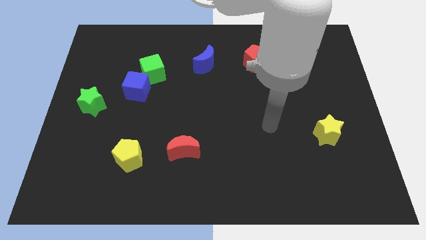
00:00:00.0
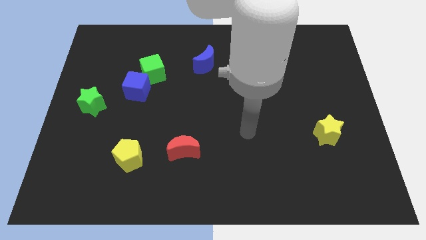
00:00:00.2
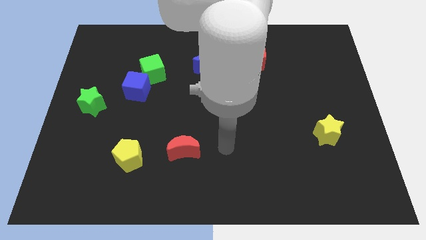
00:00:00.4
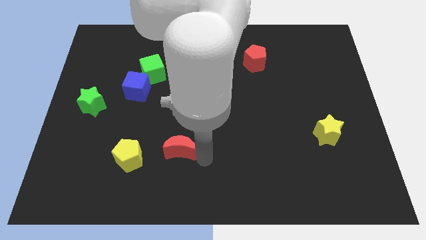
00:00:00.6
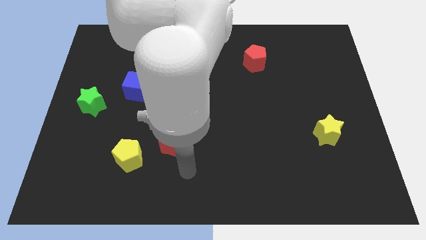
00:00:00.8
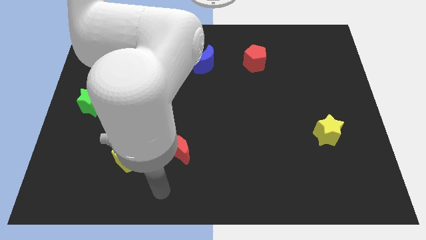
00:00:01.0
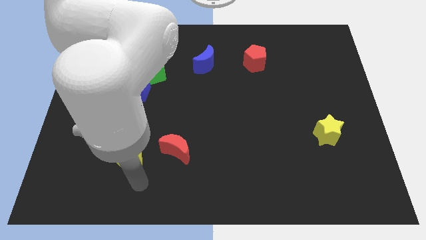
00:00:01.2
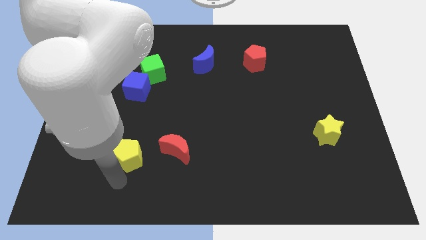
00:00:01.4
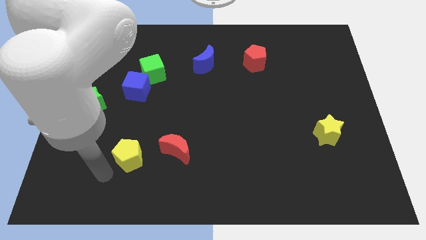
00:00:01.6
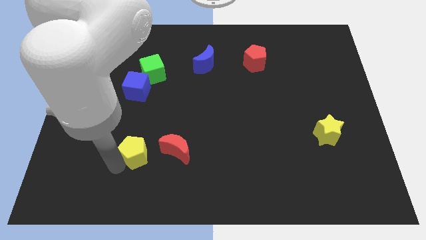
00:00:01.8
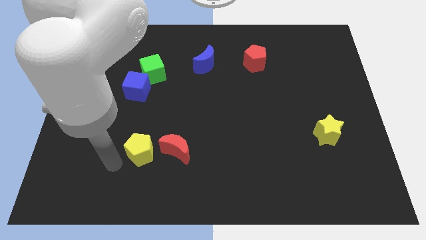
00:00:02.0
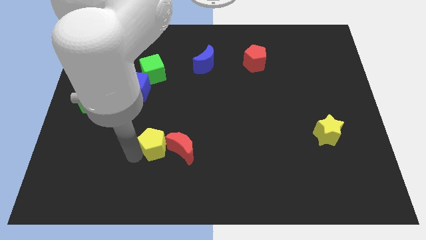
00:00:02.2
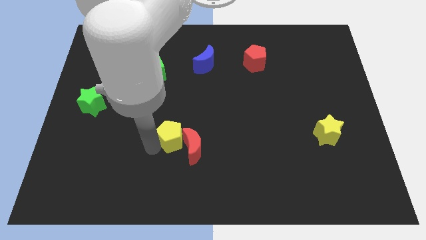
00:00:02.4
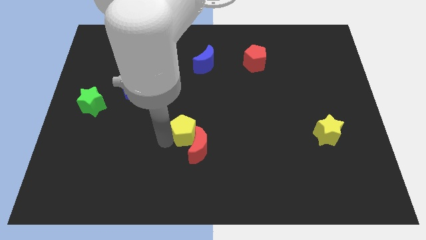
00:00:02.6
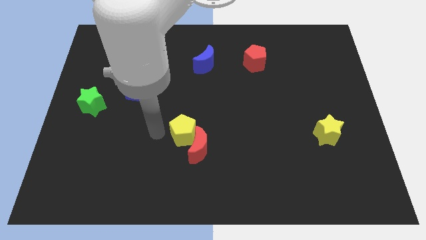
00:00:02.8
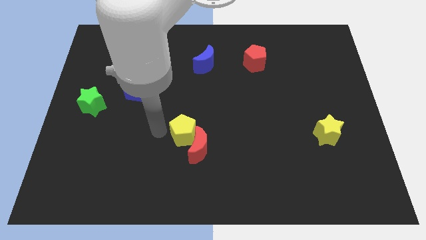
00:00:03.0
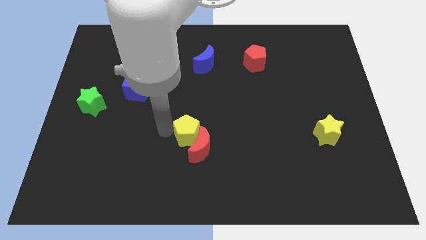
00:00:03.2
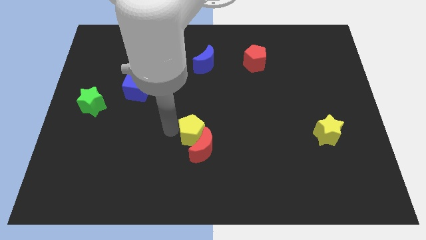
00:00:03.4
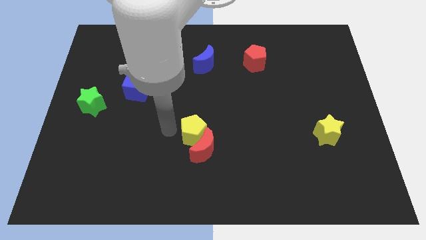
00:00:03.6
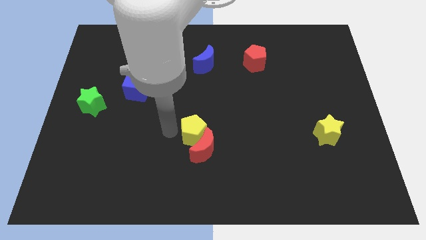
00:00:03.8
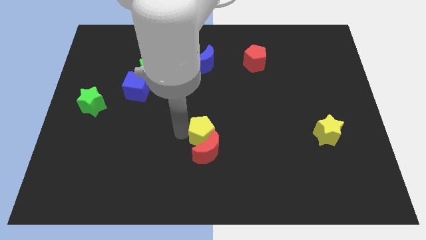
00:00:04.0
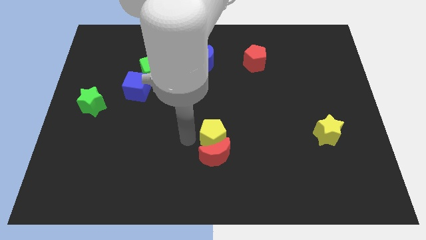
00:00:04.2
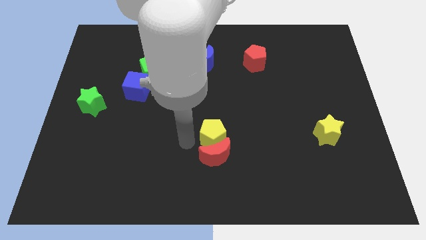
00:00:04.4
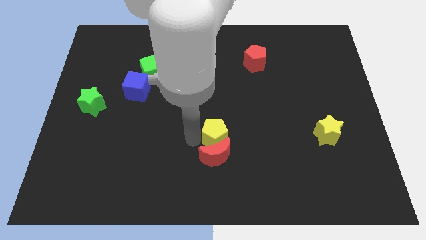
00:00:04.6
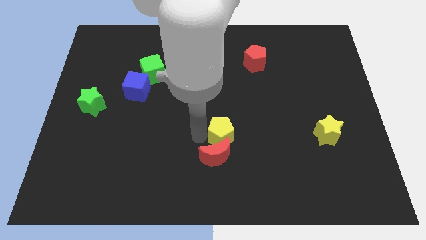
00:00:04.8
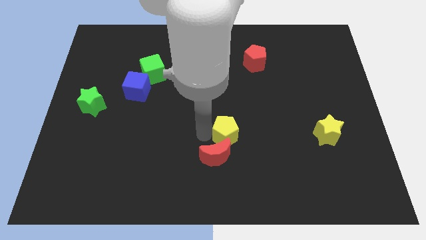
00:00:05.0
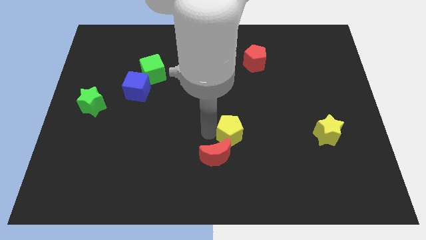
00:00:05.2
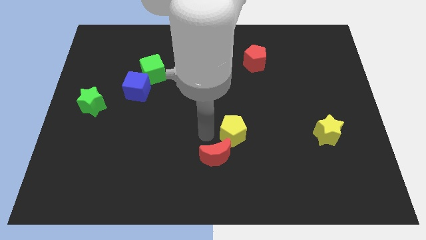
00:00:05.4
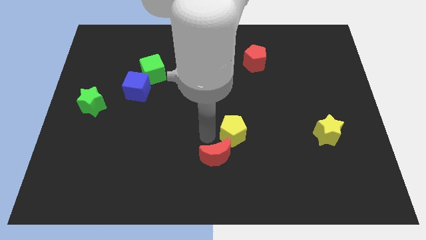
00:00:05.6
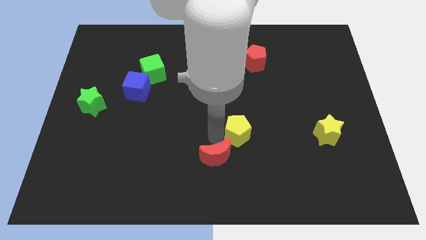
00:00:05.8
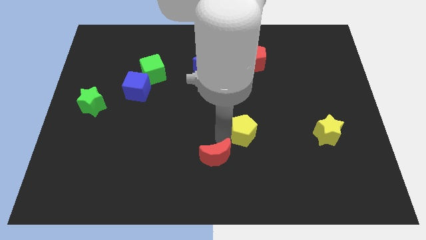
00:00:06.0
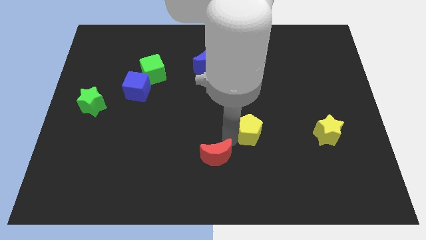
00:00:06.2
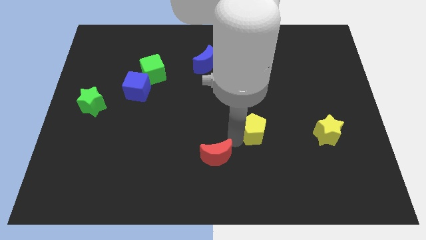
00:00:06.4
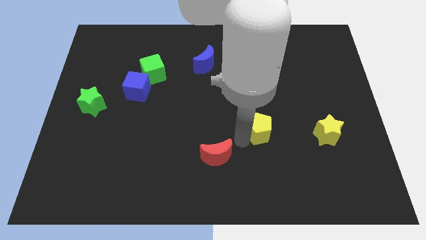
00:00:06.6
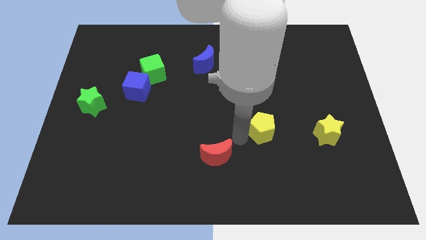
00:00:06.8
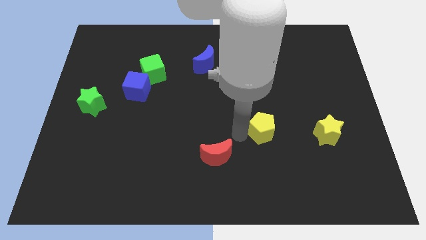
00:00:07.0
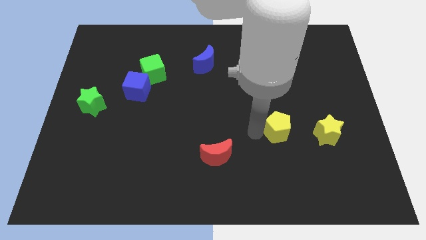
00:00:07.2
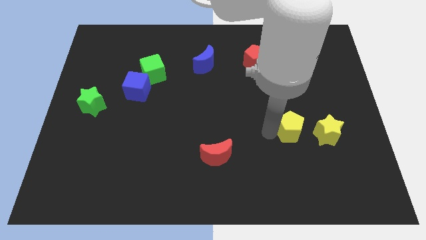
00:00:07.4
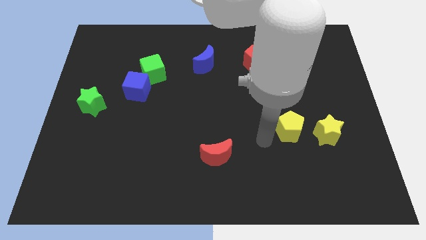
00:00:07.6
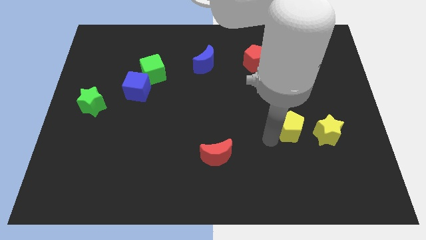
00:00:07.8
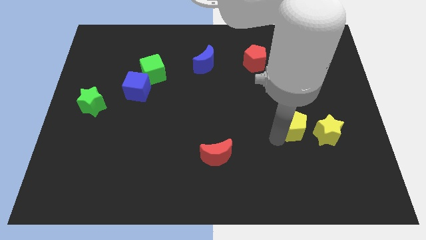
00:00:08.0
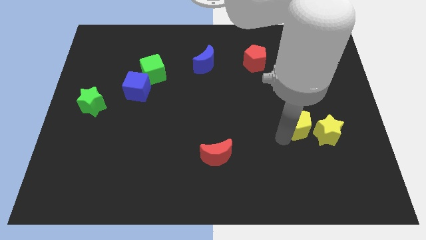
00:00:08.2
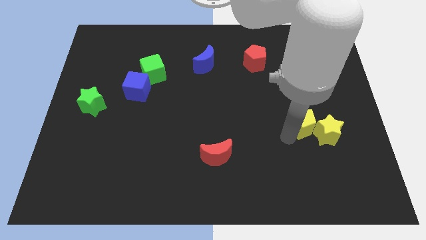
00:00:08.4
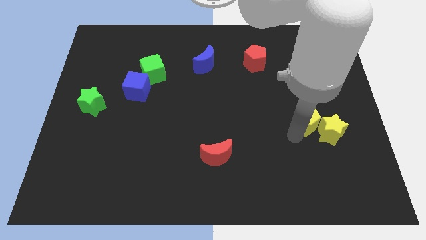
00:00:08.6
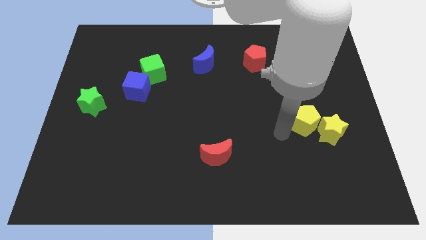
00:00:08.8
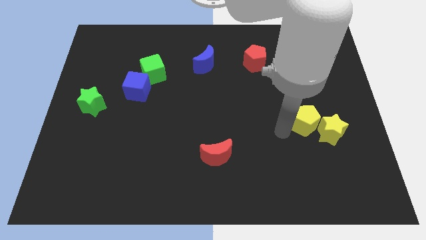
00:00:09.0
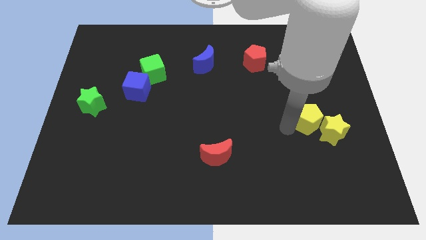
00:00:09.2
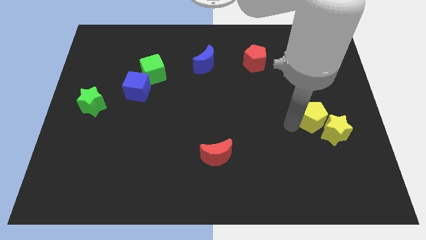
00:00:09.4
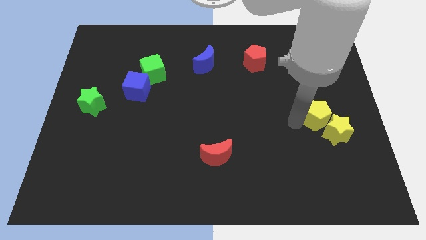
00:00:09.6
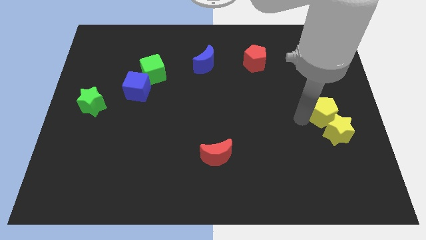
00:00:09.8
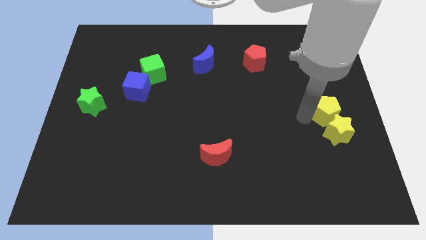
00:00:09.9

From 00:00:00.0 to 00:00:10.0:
put the yellow pentagon to the right side

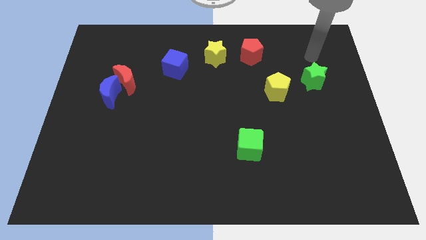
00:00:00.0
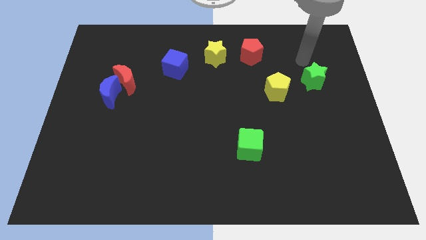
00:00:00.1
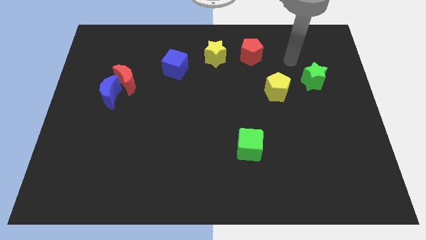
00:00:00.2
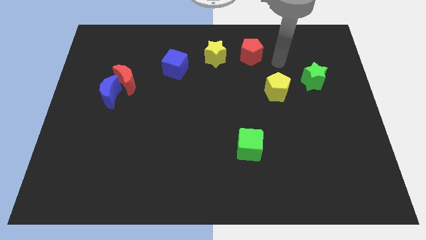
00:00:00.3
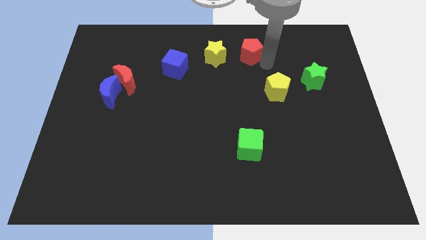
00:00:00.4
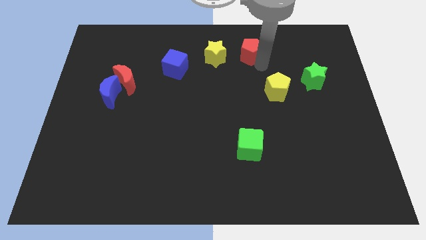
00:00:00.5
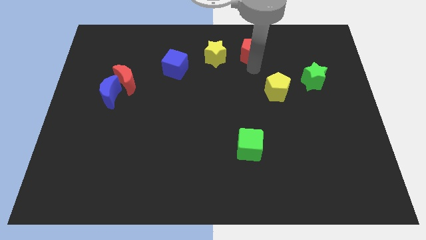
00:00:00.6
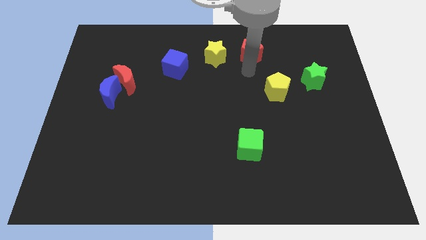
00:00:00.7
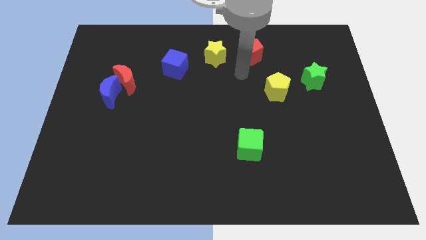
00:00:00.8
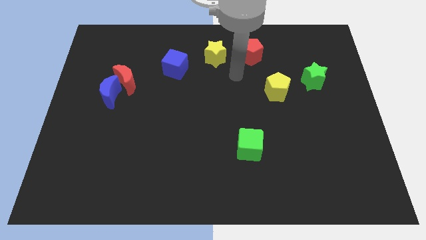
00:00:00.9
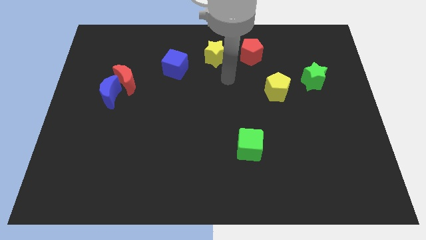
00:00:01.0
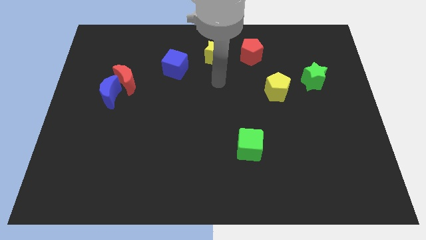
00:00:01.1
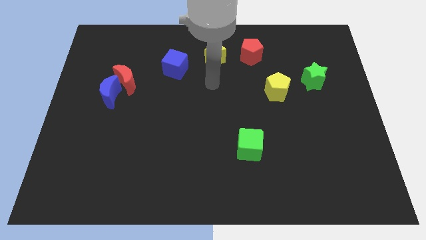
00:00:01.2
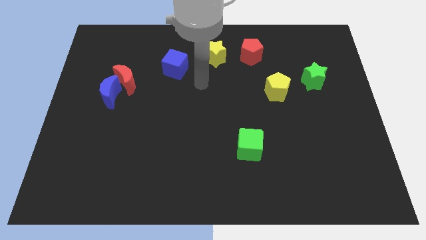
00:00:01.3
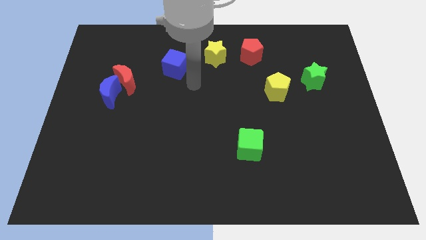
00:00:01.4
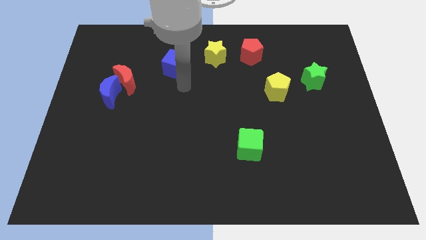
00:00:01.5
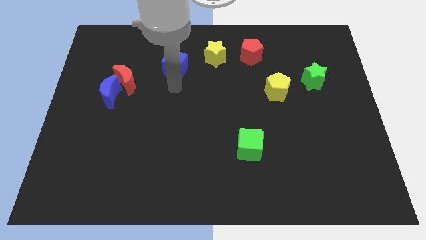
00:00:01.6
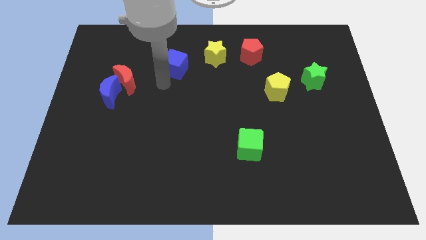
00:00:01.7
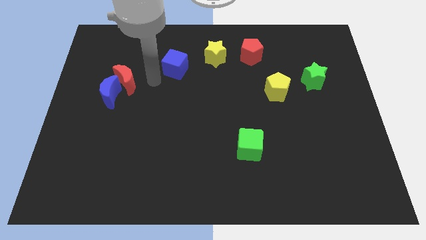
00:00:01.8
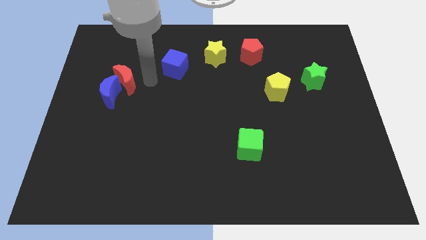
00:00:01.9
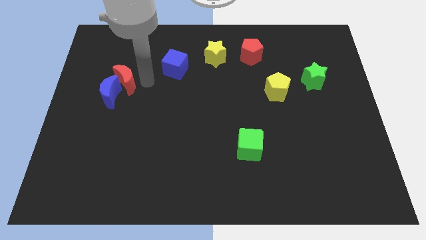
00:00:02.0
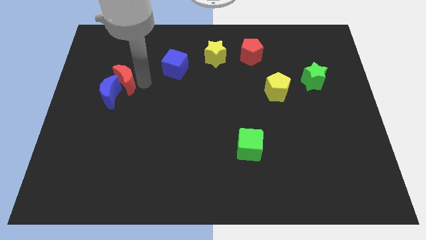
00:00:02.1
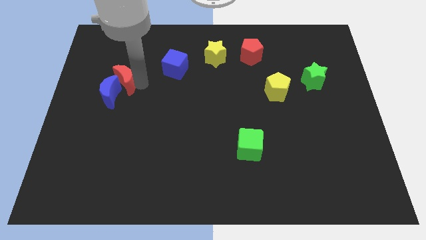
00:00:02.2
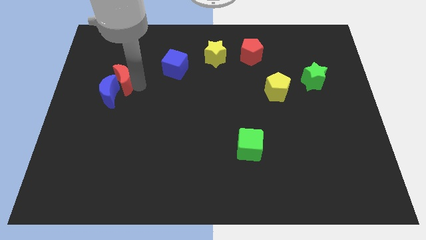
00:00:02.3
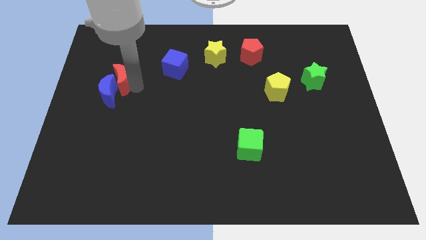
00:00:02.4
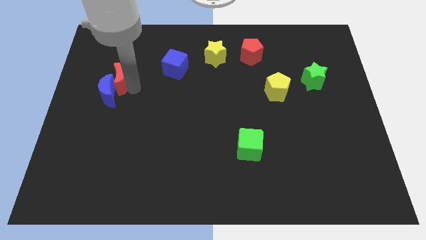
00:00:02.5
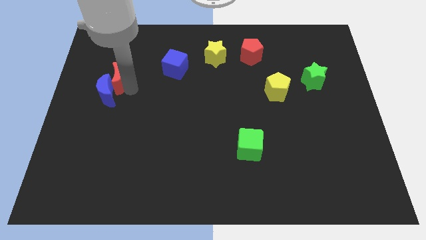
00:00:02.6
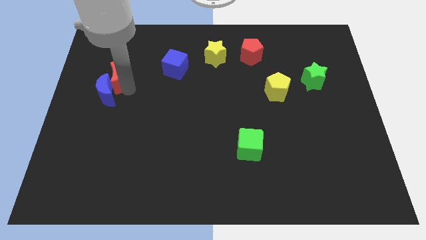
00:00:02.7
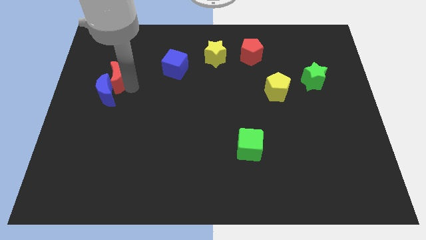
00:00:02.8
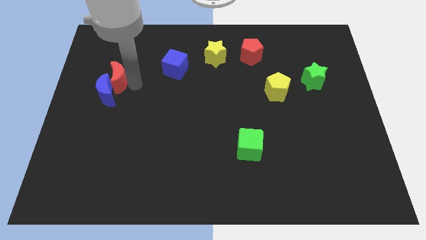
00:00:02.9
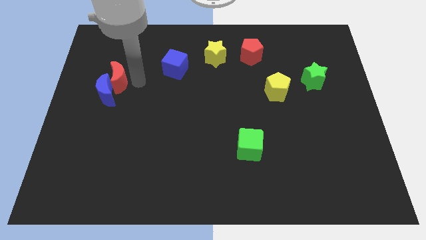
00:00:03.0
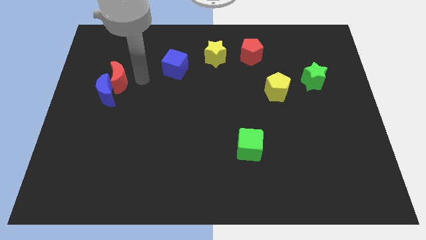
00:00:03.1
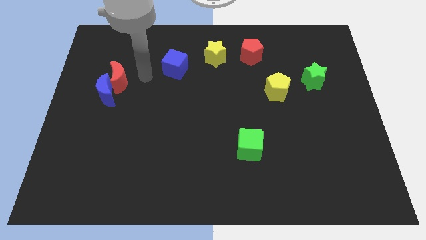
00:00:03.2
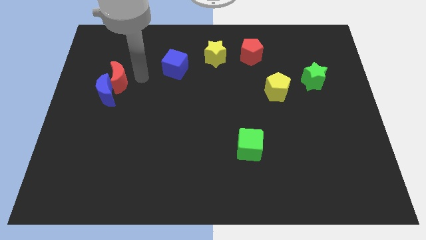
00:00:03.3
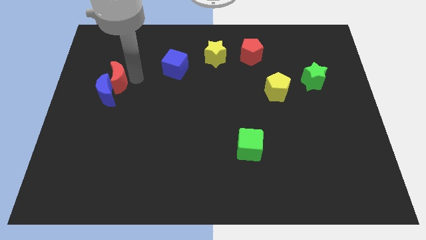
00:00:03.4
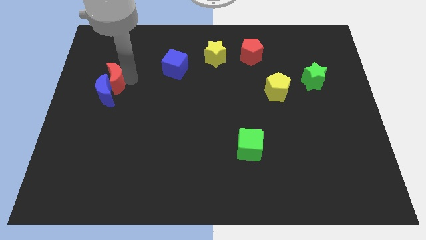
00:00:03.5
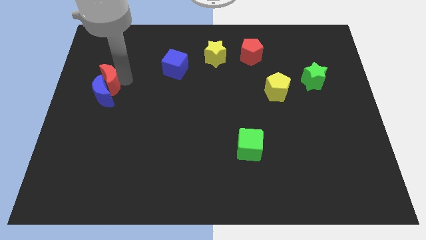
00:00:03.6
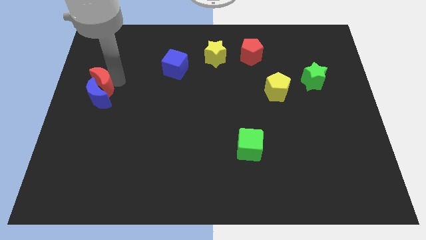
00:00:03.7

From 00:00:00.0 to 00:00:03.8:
push the red moon to the left side of the board
